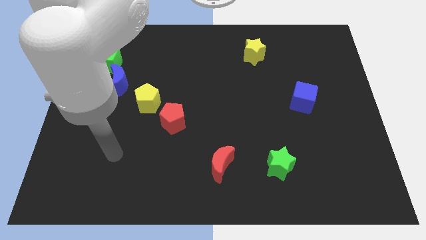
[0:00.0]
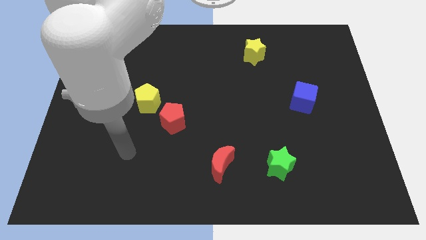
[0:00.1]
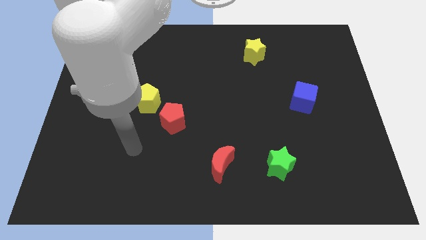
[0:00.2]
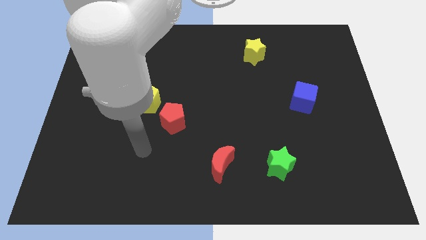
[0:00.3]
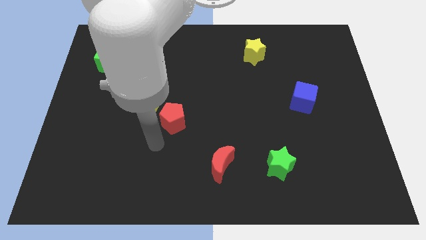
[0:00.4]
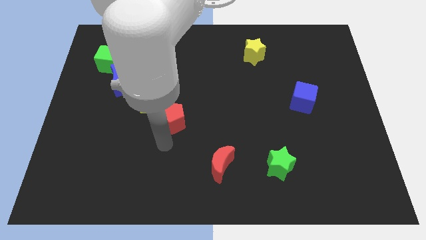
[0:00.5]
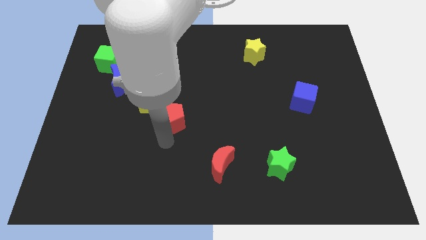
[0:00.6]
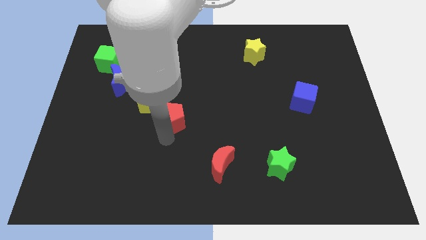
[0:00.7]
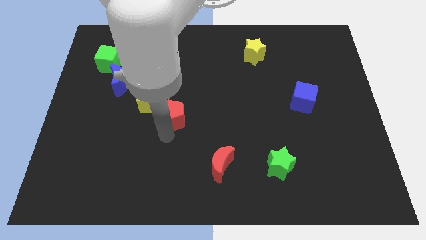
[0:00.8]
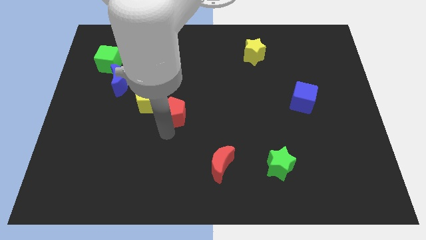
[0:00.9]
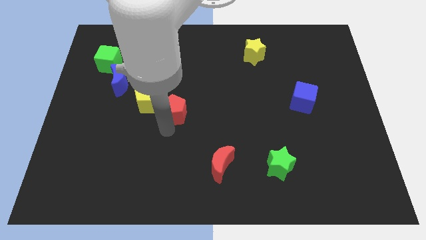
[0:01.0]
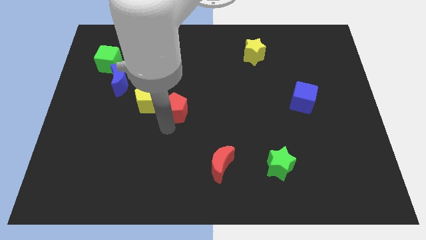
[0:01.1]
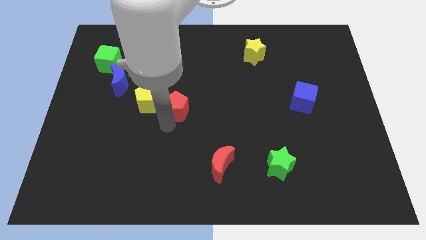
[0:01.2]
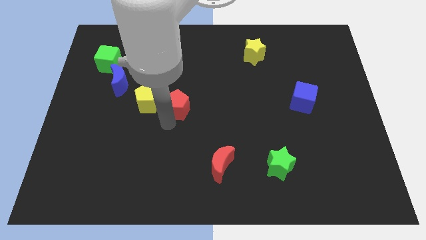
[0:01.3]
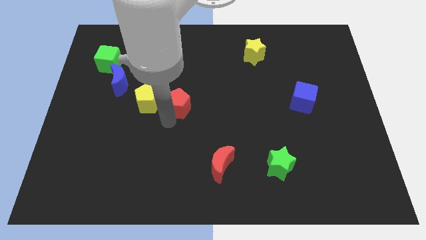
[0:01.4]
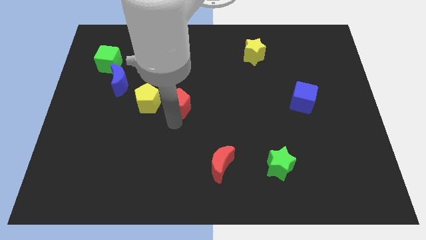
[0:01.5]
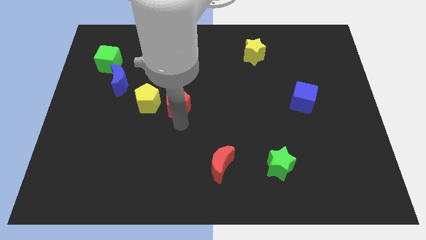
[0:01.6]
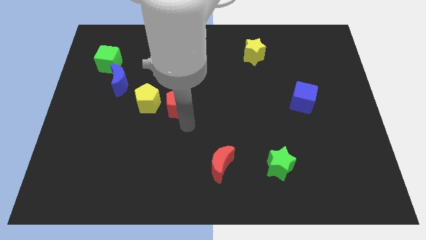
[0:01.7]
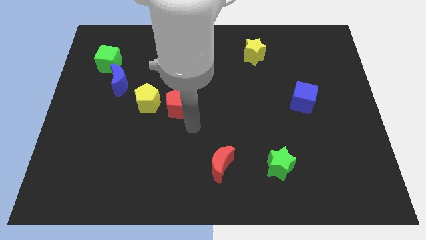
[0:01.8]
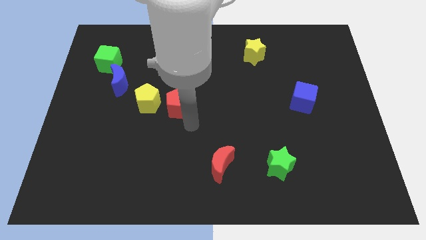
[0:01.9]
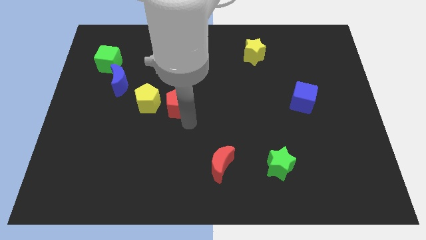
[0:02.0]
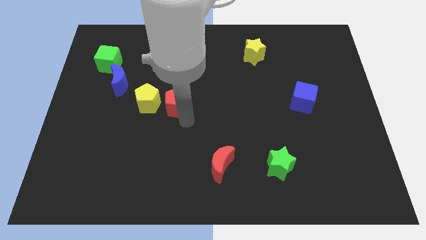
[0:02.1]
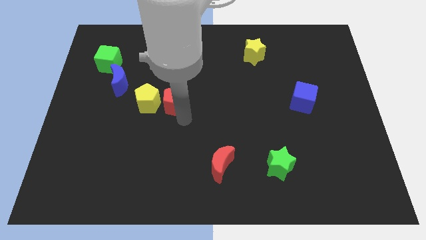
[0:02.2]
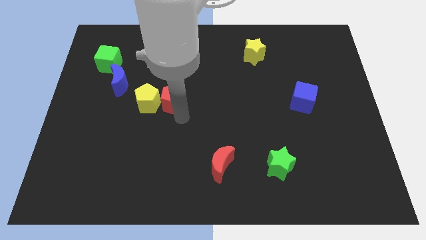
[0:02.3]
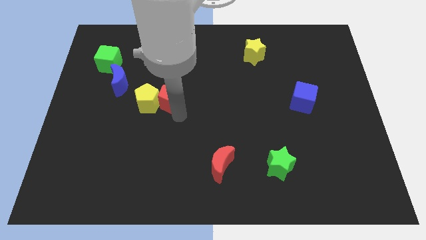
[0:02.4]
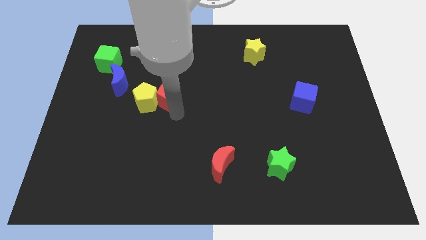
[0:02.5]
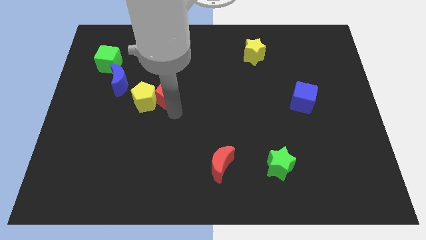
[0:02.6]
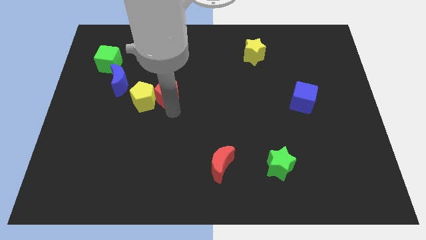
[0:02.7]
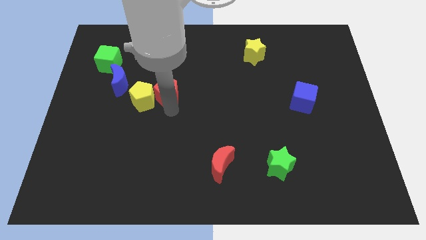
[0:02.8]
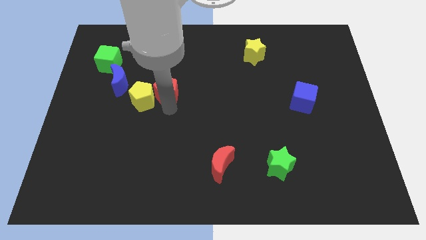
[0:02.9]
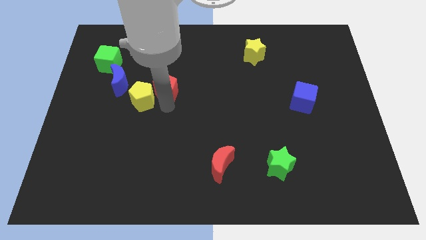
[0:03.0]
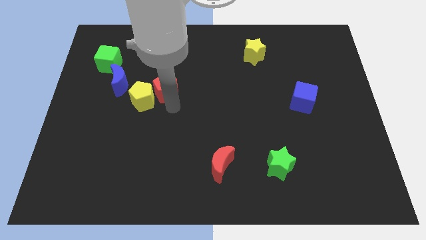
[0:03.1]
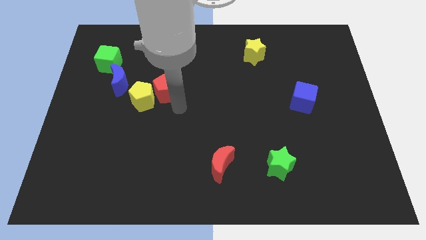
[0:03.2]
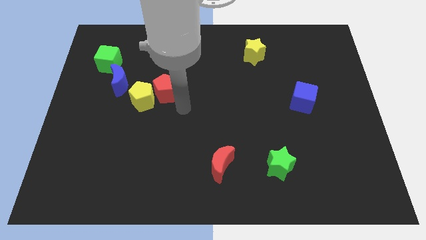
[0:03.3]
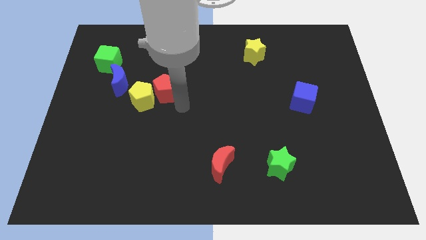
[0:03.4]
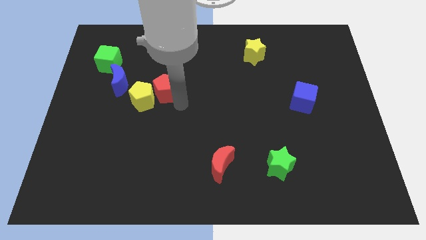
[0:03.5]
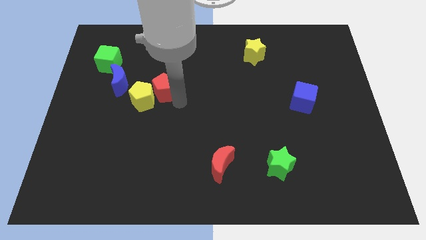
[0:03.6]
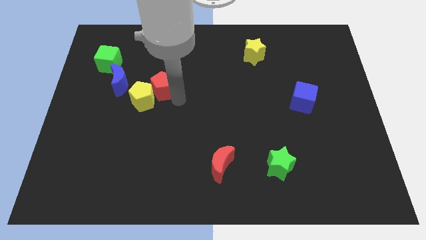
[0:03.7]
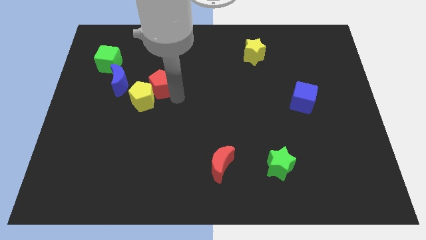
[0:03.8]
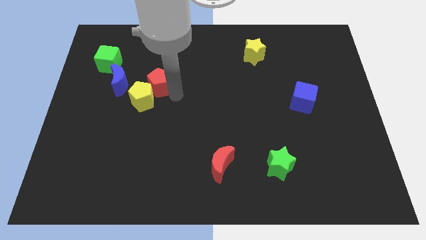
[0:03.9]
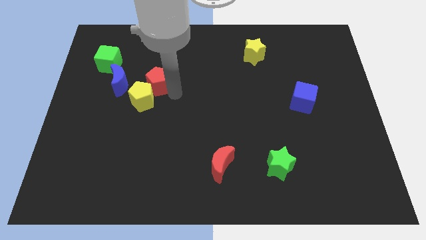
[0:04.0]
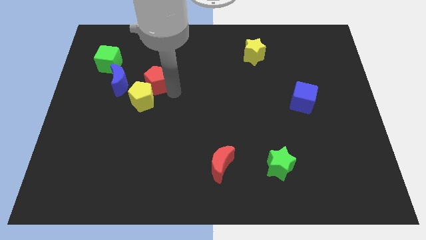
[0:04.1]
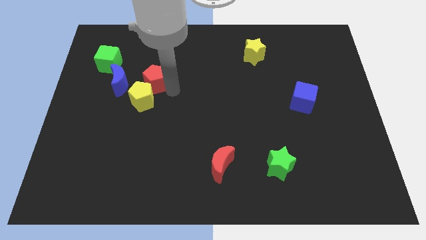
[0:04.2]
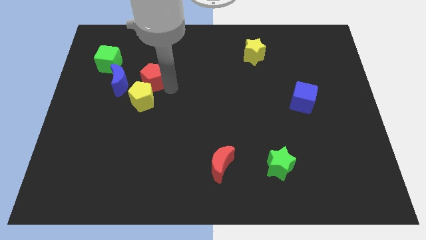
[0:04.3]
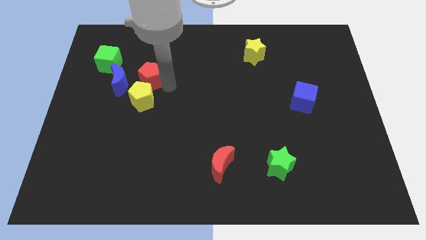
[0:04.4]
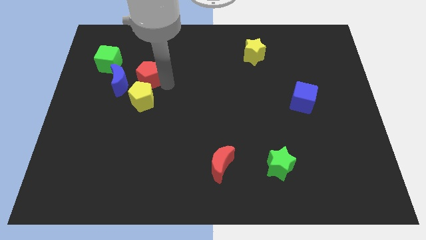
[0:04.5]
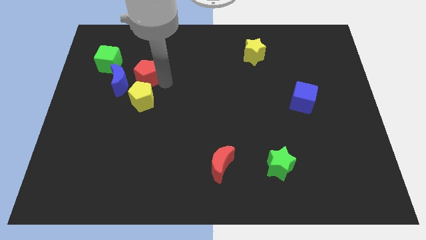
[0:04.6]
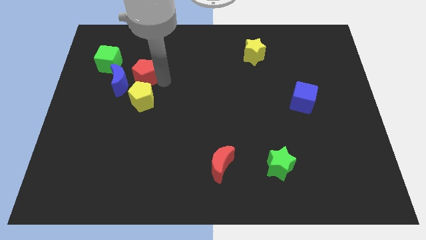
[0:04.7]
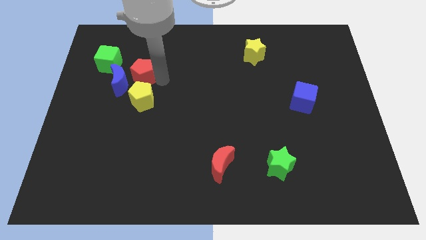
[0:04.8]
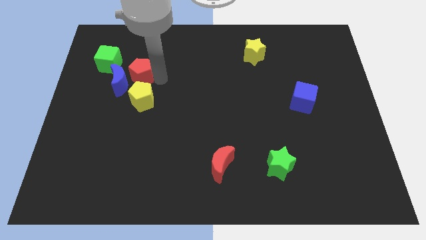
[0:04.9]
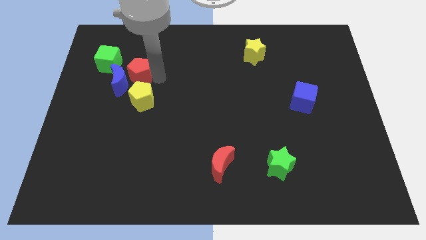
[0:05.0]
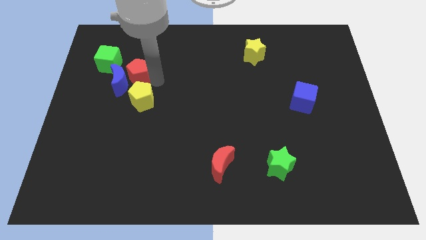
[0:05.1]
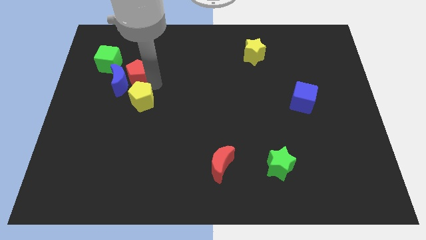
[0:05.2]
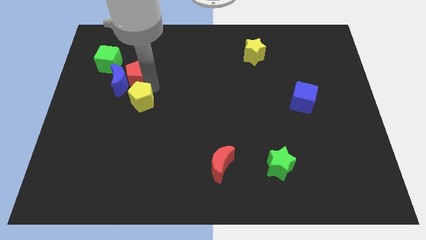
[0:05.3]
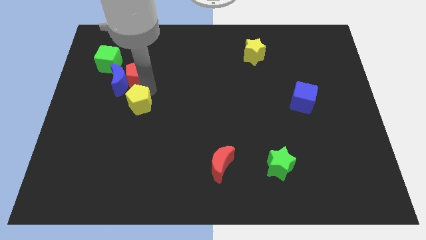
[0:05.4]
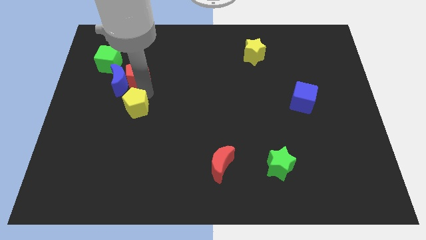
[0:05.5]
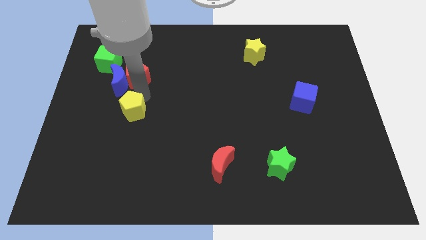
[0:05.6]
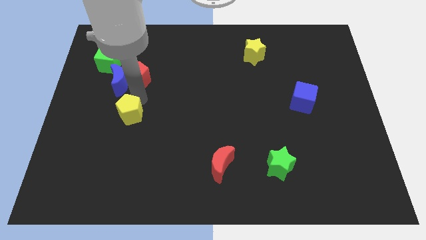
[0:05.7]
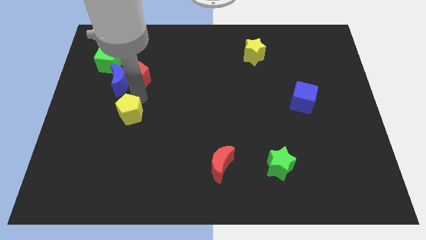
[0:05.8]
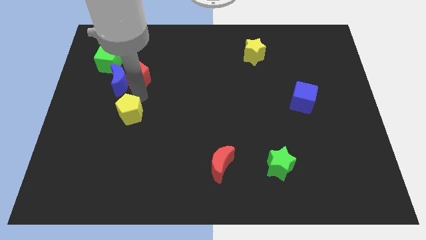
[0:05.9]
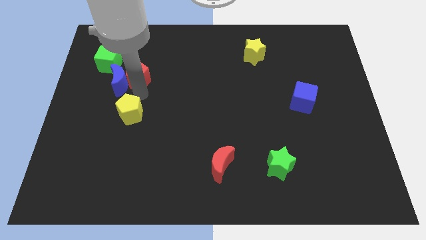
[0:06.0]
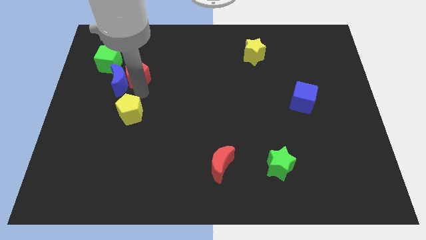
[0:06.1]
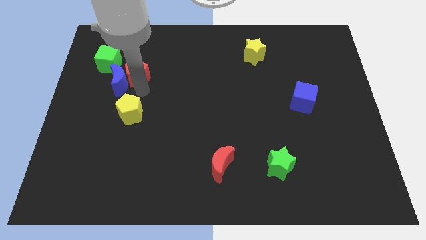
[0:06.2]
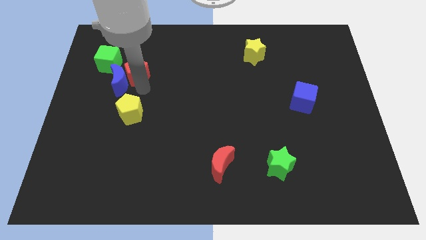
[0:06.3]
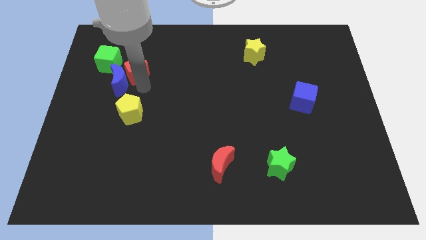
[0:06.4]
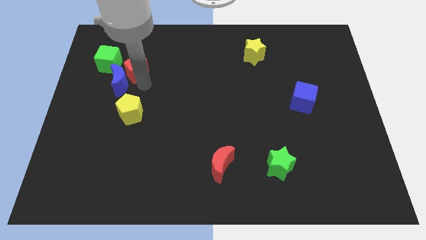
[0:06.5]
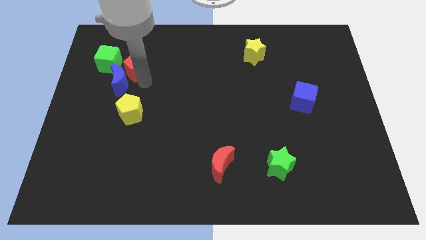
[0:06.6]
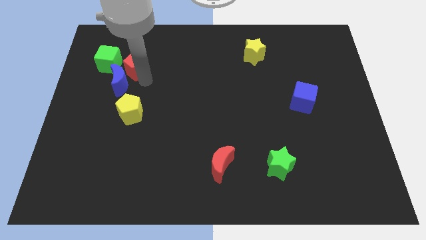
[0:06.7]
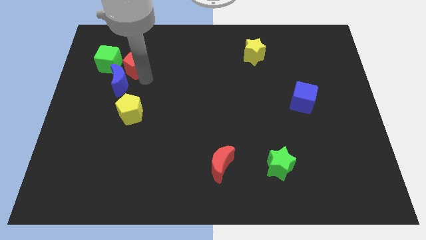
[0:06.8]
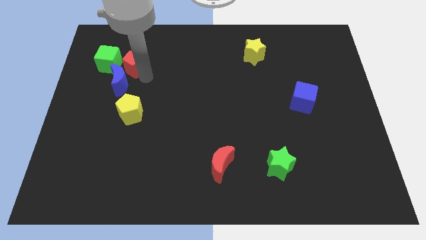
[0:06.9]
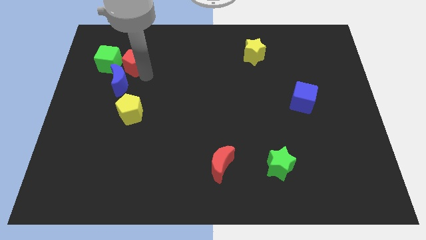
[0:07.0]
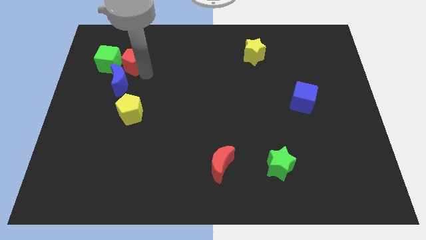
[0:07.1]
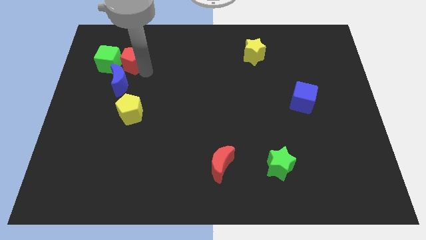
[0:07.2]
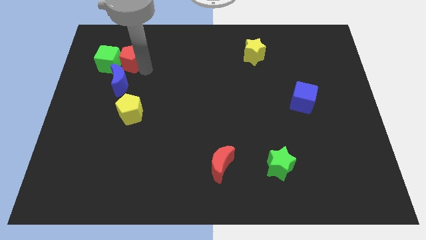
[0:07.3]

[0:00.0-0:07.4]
push the red pentagon close to the green cube

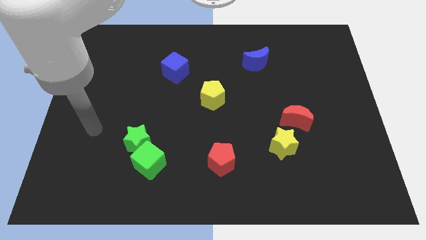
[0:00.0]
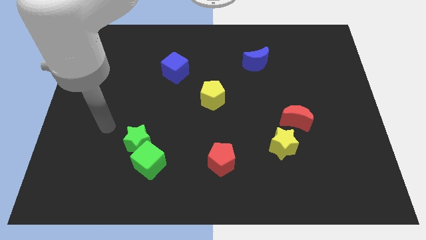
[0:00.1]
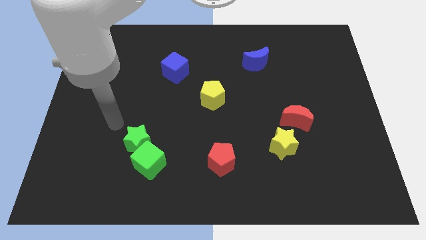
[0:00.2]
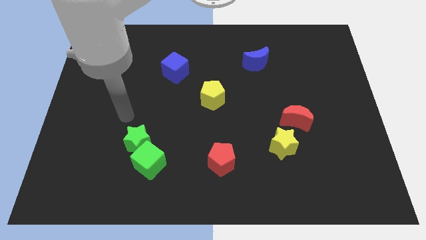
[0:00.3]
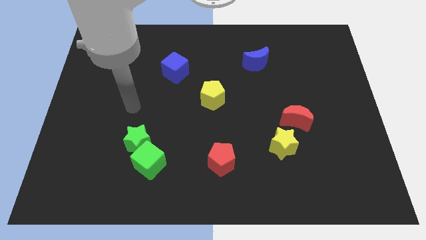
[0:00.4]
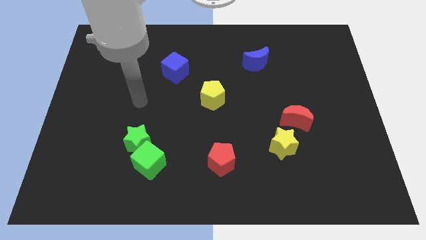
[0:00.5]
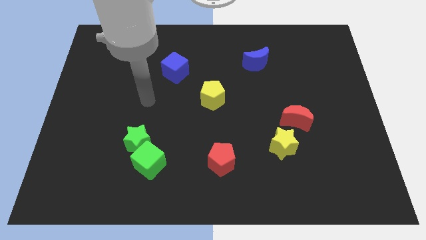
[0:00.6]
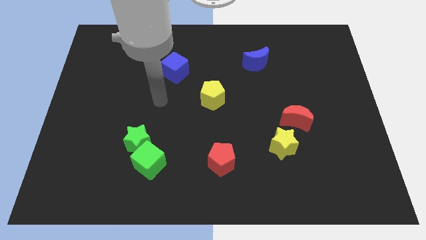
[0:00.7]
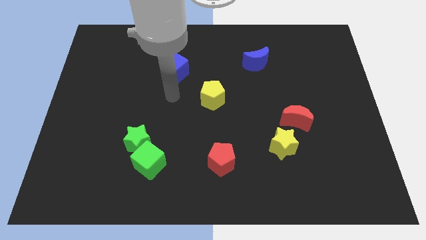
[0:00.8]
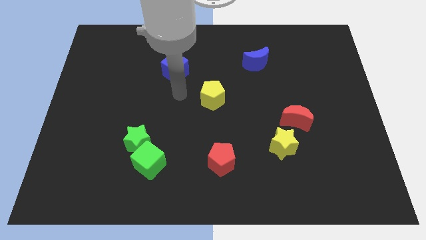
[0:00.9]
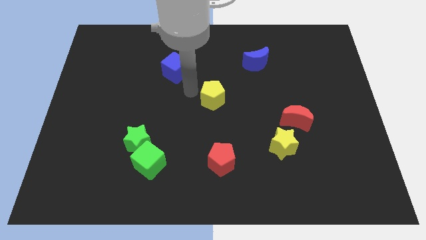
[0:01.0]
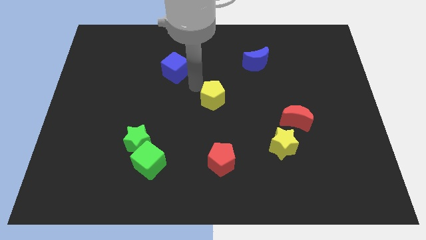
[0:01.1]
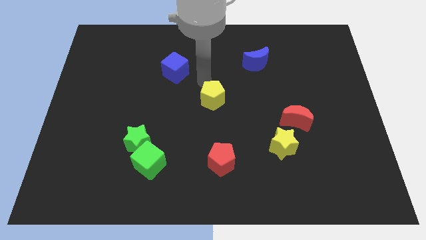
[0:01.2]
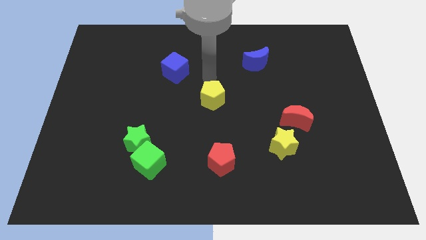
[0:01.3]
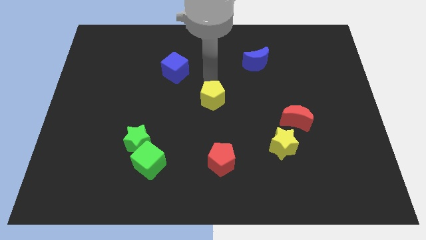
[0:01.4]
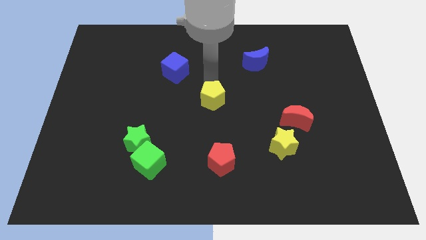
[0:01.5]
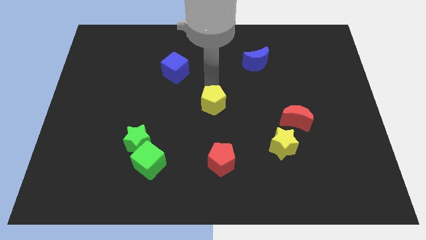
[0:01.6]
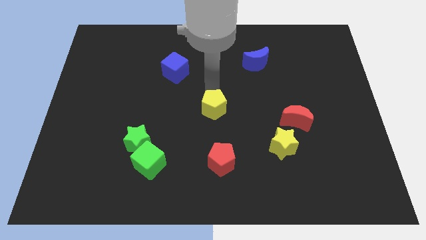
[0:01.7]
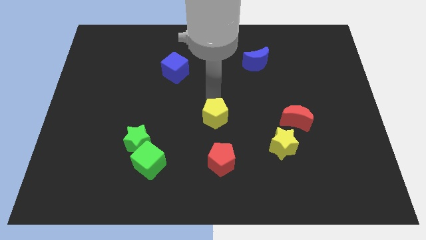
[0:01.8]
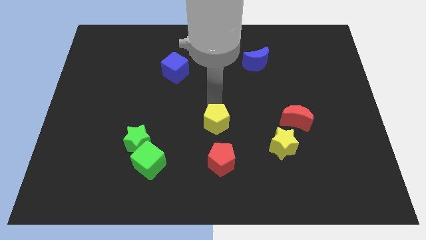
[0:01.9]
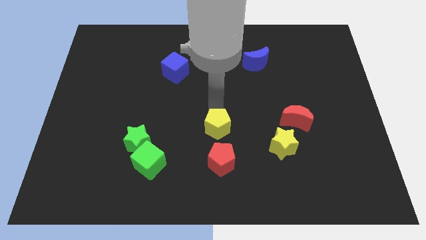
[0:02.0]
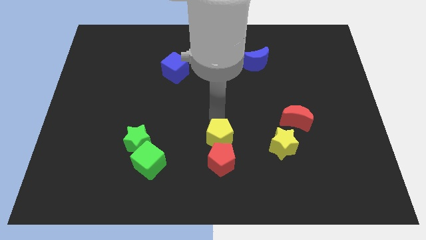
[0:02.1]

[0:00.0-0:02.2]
put the yellow pentagon to the red pentagon
